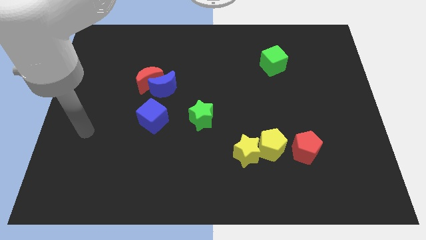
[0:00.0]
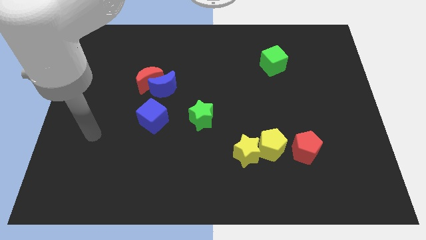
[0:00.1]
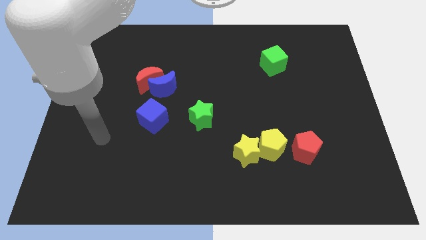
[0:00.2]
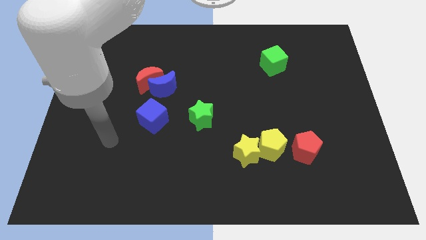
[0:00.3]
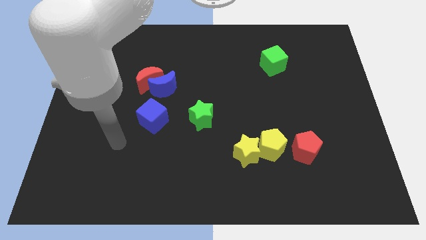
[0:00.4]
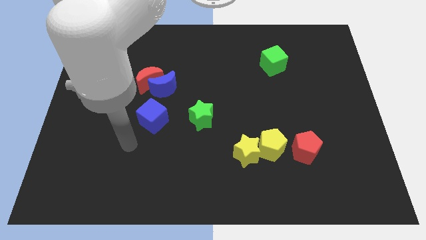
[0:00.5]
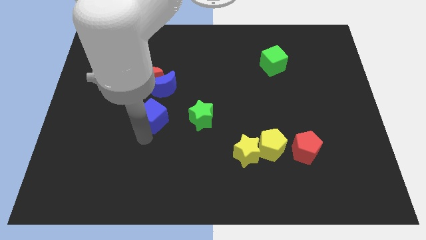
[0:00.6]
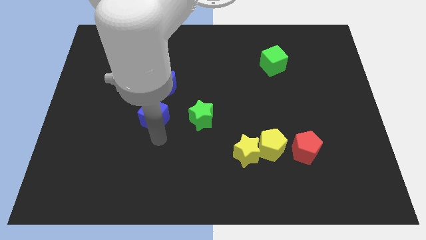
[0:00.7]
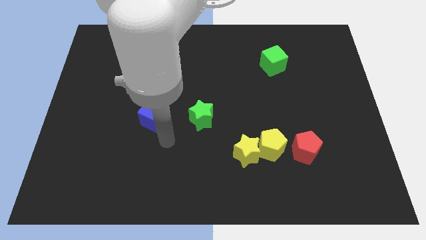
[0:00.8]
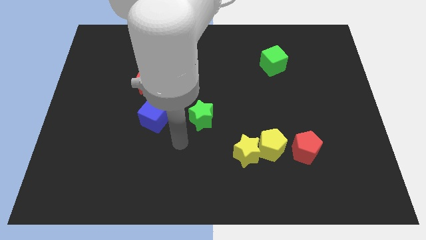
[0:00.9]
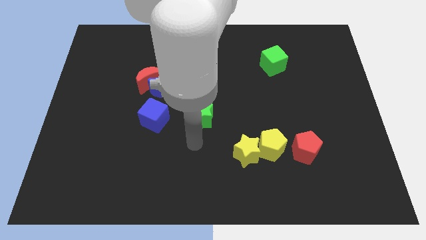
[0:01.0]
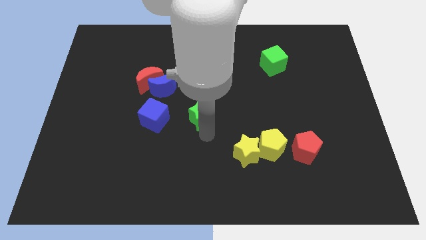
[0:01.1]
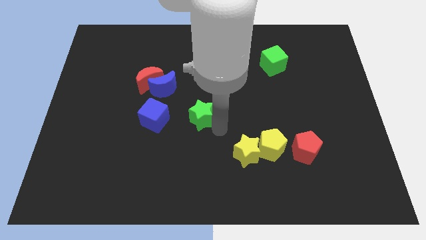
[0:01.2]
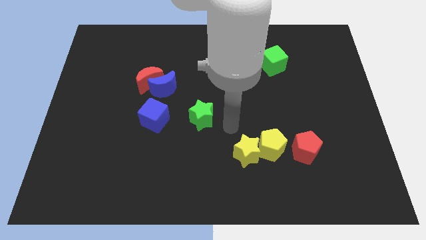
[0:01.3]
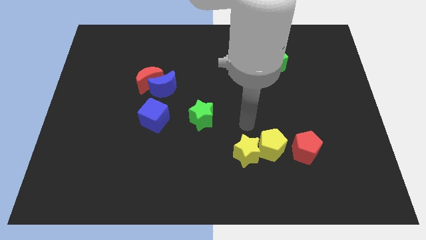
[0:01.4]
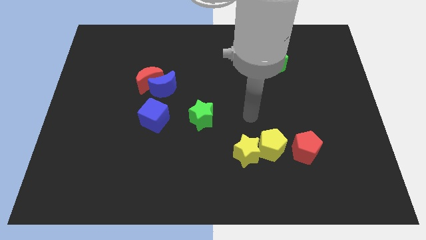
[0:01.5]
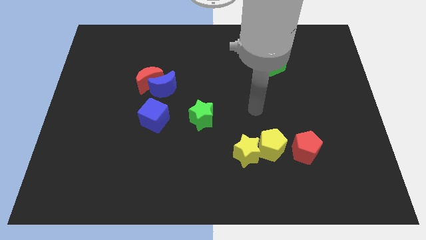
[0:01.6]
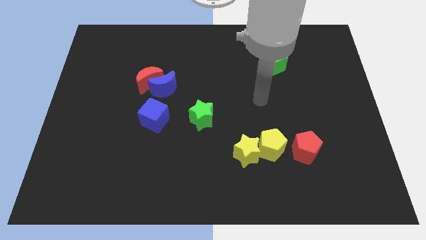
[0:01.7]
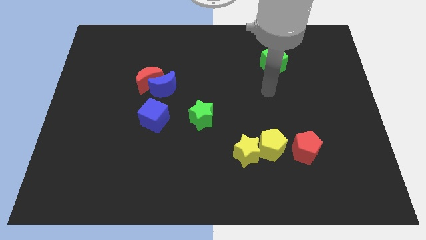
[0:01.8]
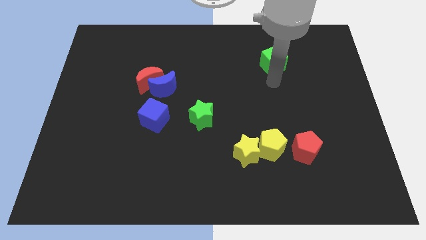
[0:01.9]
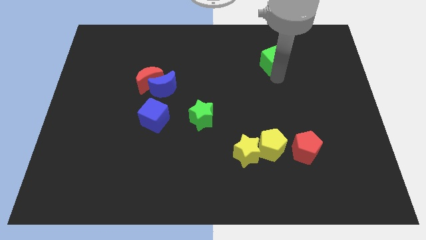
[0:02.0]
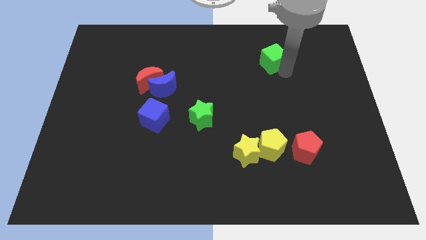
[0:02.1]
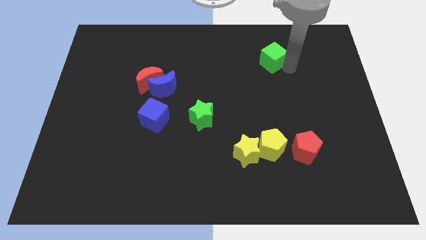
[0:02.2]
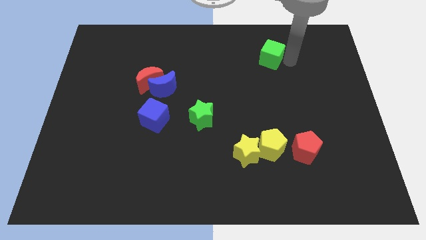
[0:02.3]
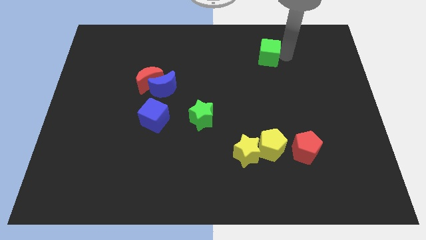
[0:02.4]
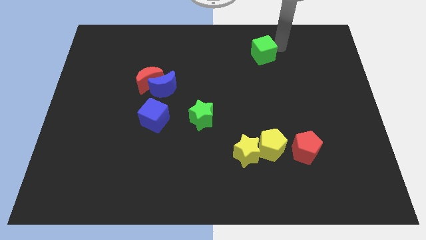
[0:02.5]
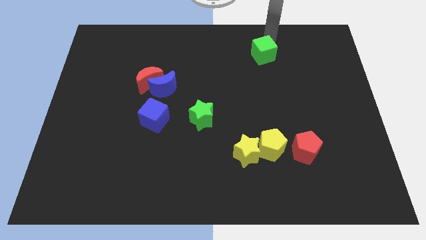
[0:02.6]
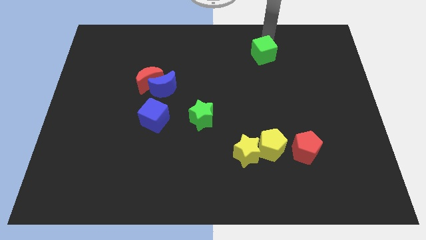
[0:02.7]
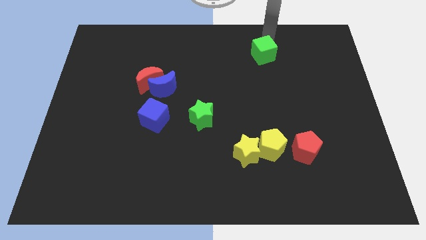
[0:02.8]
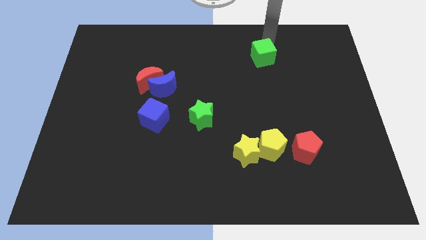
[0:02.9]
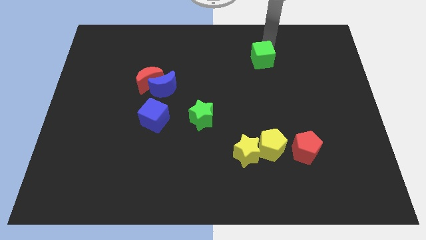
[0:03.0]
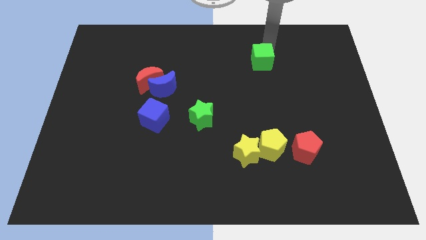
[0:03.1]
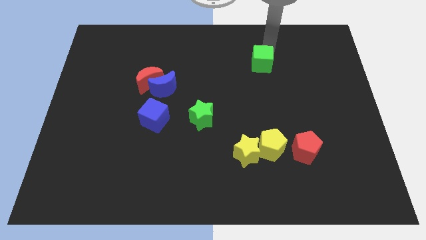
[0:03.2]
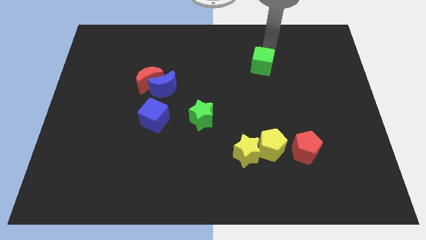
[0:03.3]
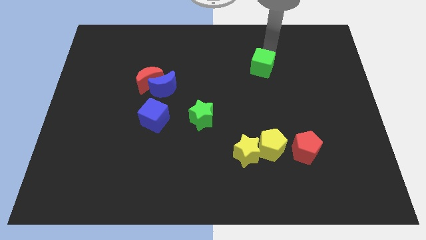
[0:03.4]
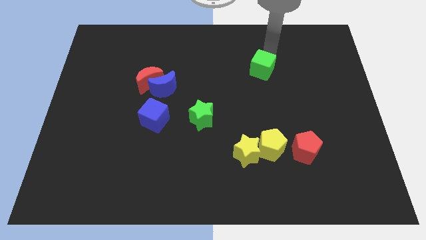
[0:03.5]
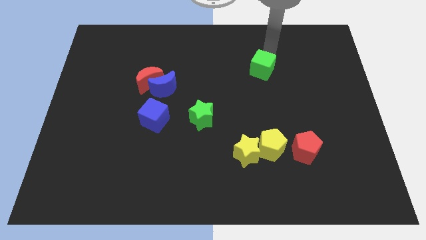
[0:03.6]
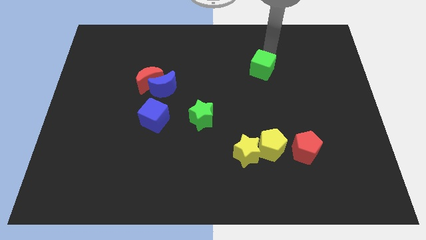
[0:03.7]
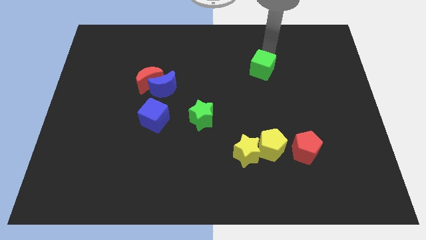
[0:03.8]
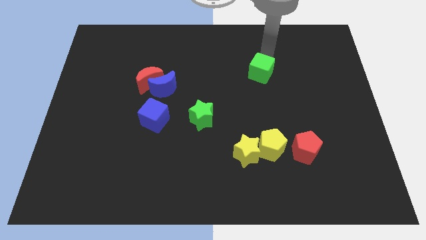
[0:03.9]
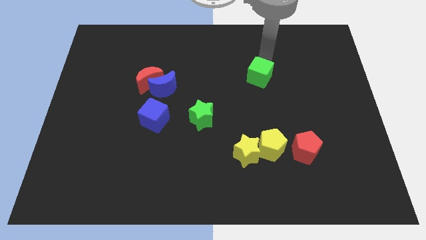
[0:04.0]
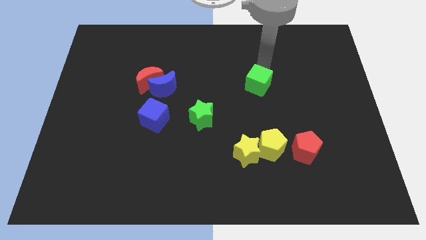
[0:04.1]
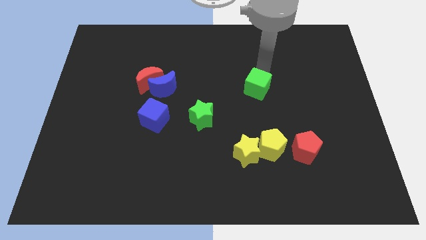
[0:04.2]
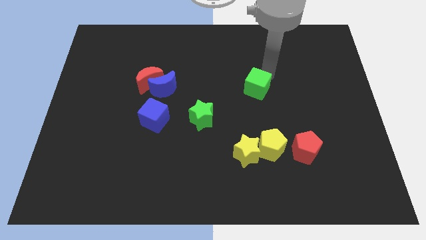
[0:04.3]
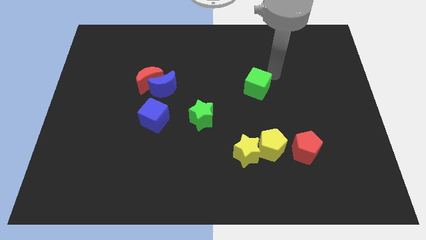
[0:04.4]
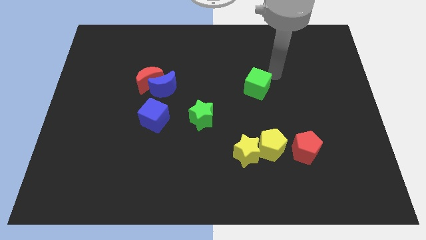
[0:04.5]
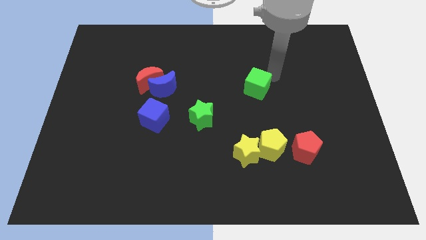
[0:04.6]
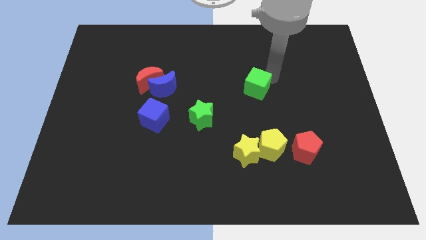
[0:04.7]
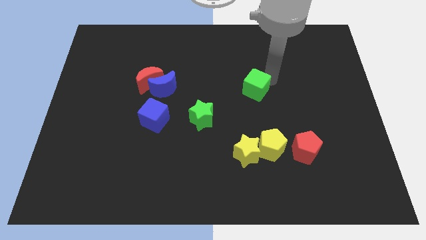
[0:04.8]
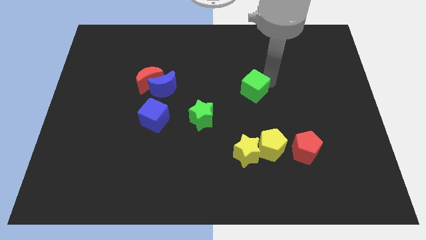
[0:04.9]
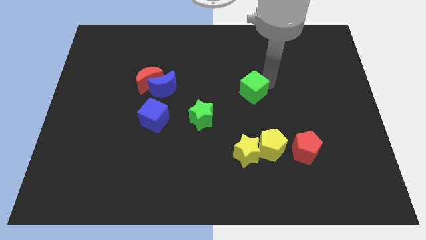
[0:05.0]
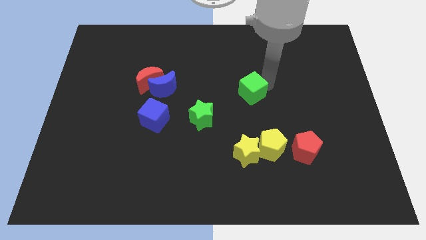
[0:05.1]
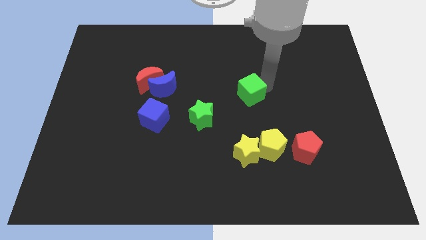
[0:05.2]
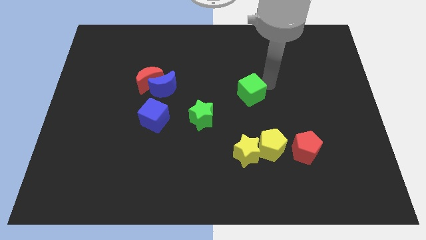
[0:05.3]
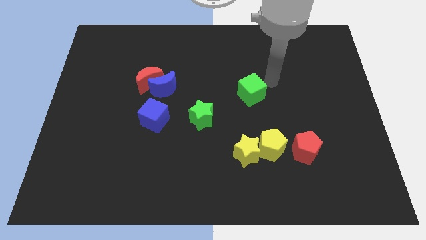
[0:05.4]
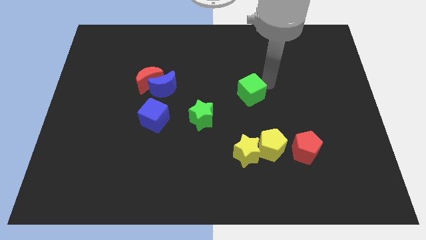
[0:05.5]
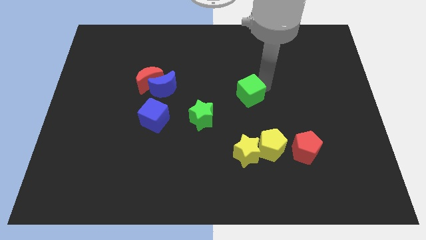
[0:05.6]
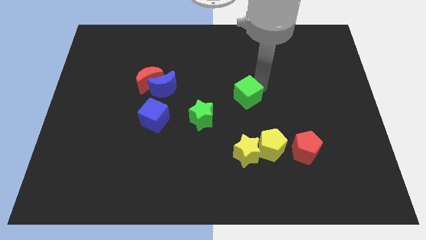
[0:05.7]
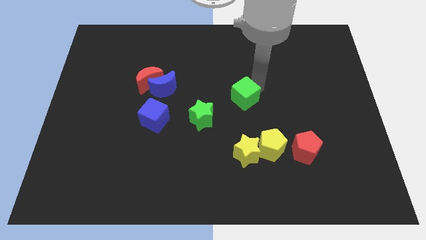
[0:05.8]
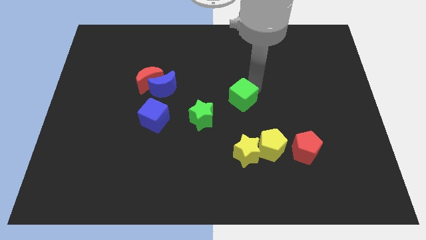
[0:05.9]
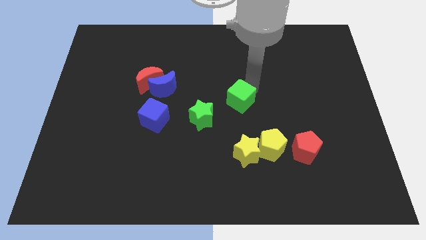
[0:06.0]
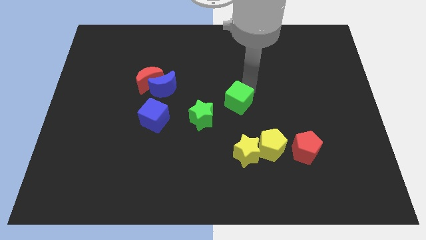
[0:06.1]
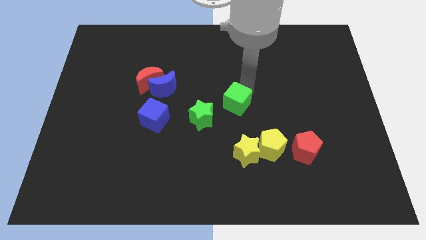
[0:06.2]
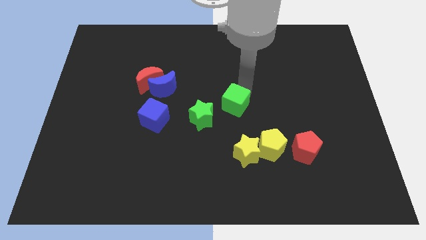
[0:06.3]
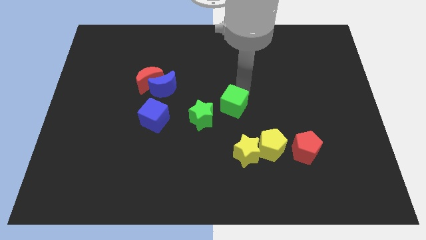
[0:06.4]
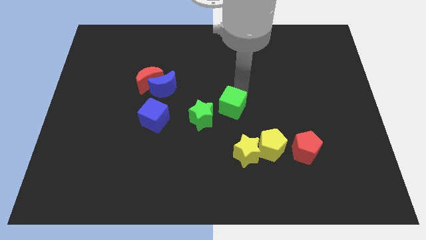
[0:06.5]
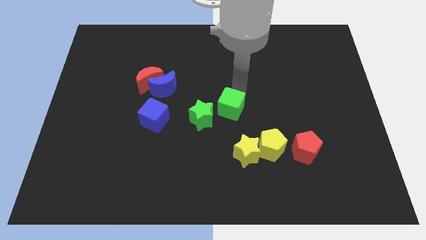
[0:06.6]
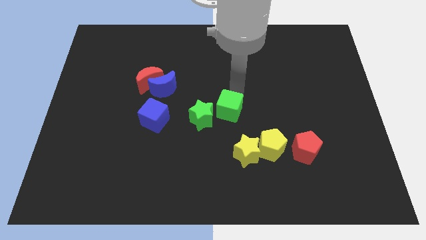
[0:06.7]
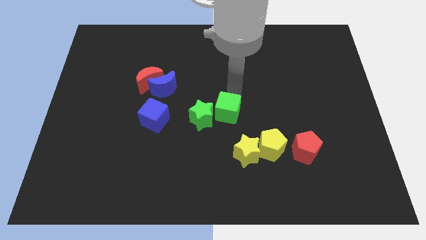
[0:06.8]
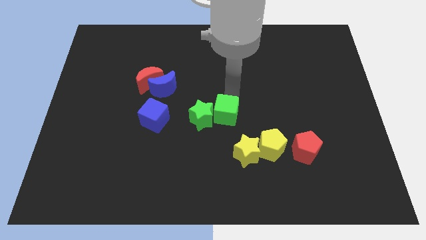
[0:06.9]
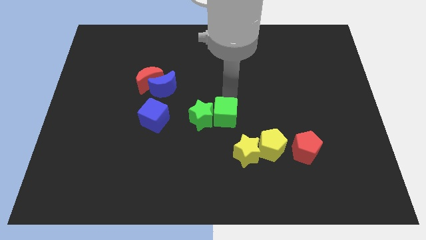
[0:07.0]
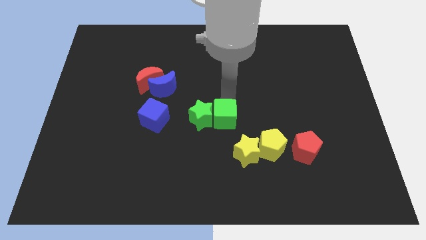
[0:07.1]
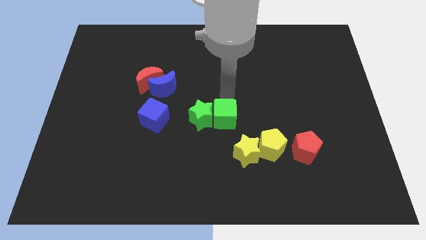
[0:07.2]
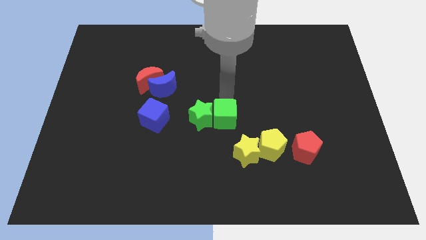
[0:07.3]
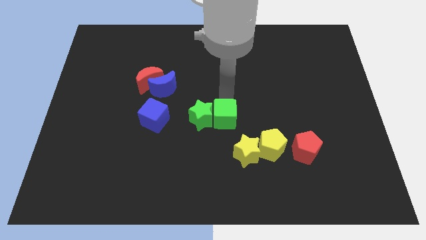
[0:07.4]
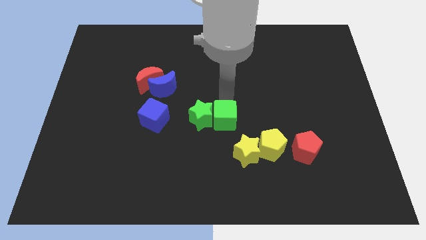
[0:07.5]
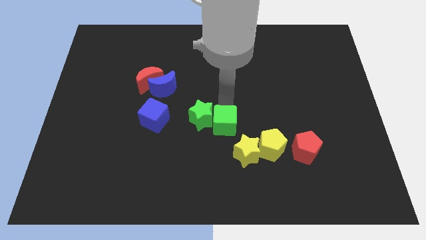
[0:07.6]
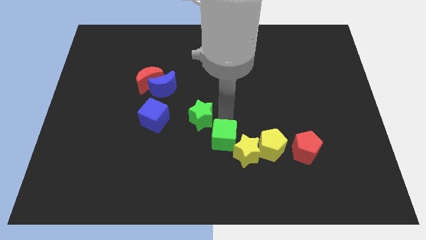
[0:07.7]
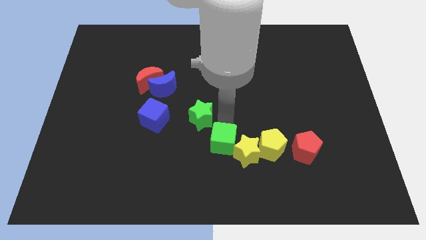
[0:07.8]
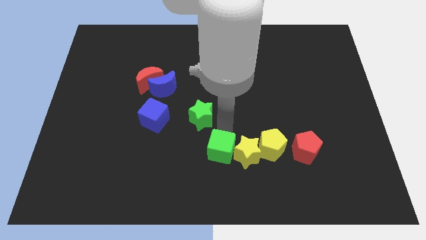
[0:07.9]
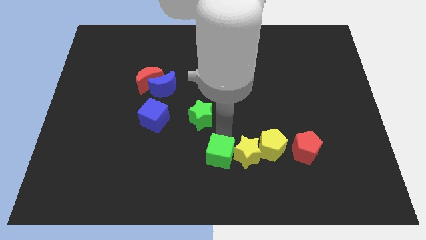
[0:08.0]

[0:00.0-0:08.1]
put the green cube to the bottom
